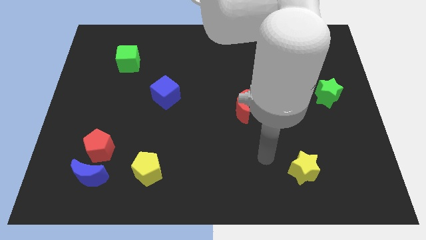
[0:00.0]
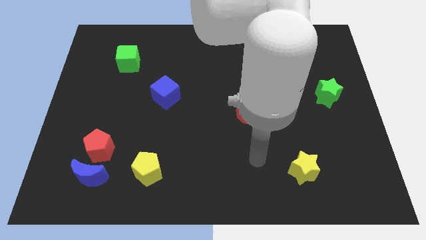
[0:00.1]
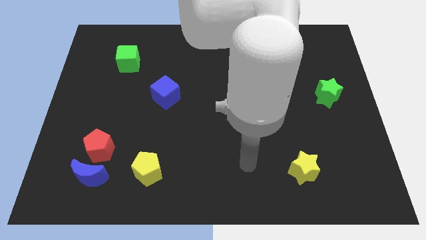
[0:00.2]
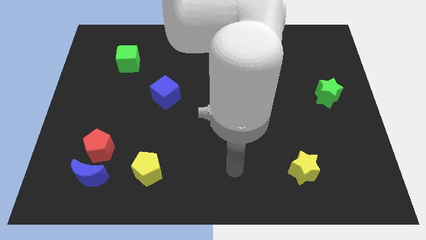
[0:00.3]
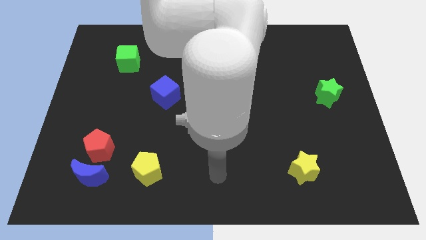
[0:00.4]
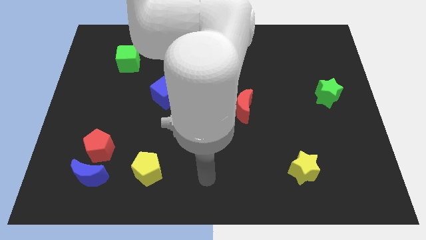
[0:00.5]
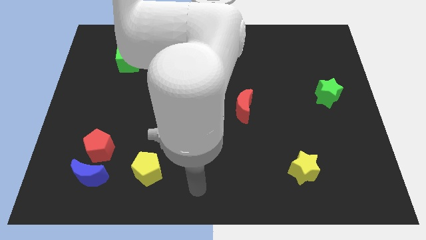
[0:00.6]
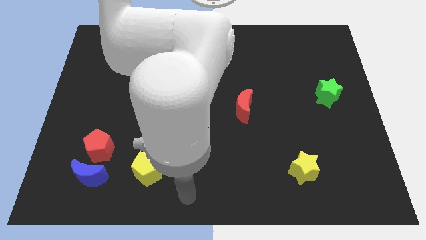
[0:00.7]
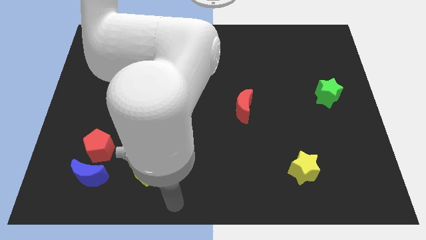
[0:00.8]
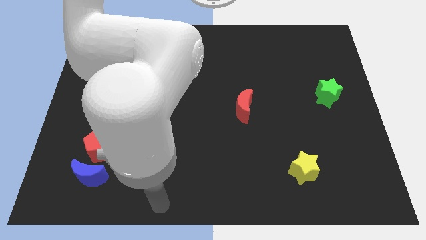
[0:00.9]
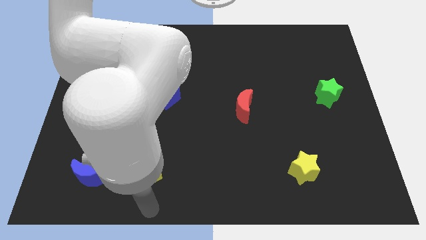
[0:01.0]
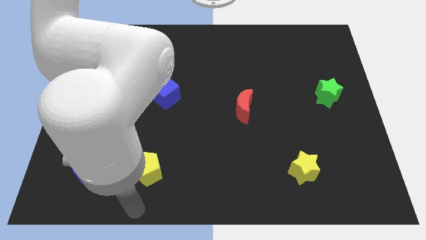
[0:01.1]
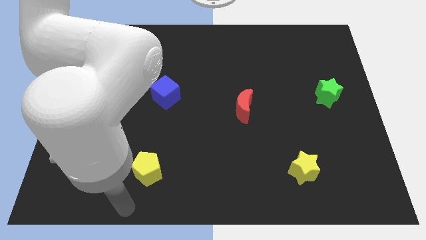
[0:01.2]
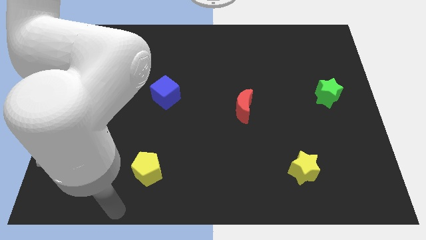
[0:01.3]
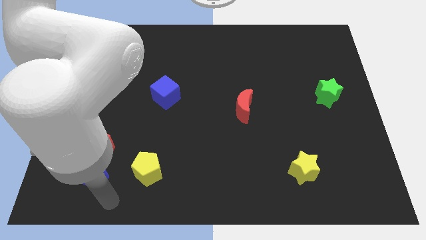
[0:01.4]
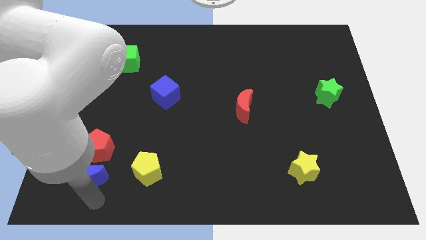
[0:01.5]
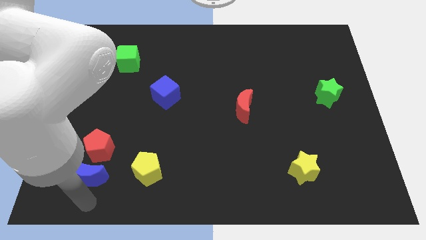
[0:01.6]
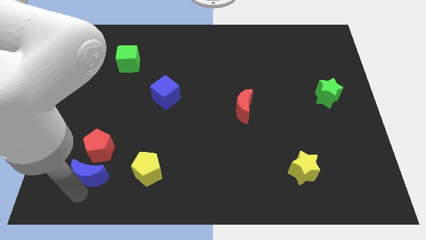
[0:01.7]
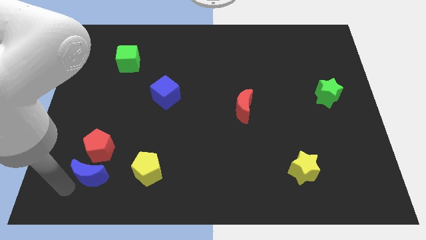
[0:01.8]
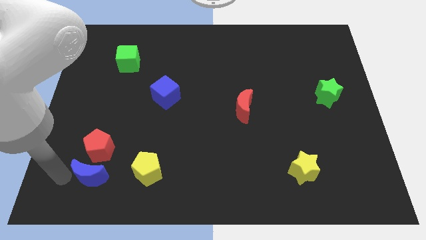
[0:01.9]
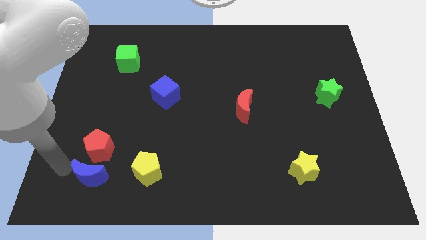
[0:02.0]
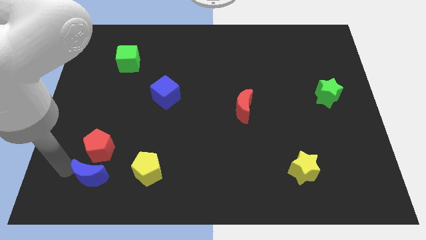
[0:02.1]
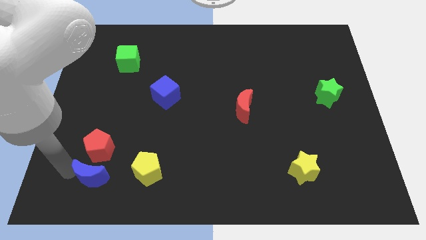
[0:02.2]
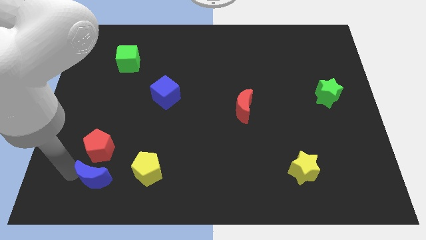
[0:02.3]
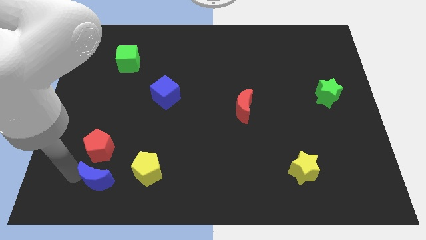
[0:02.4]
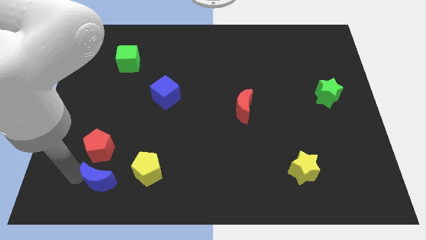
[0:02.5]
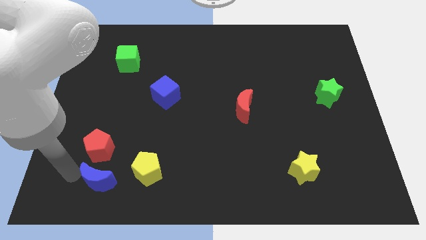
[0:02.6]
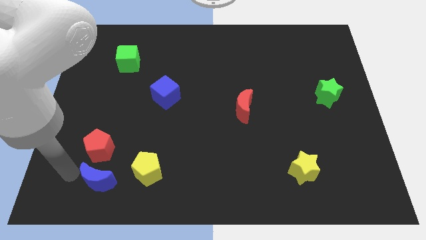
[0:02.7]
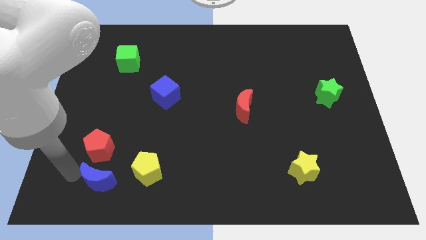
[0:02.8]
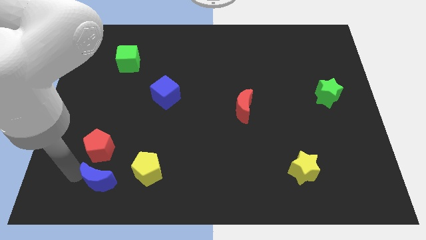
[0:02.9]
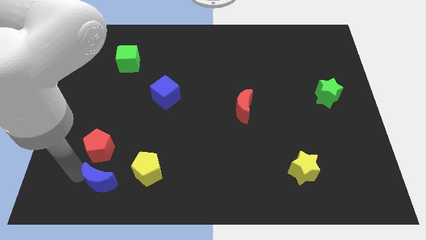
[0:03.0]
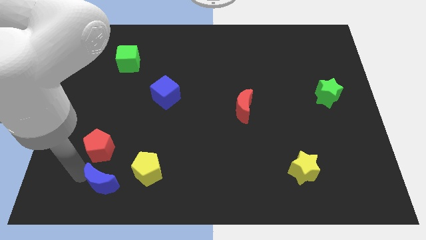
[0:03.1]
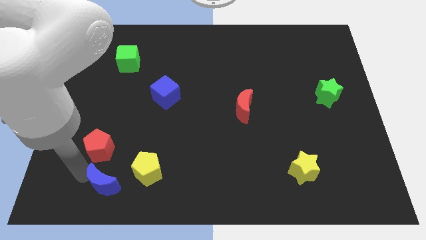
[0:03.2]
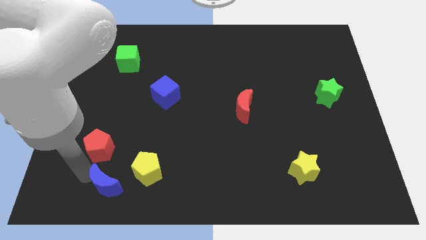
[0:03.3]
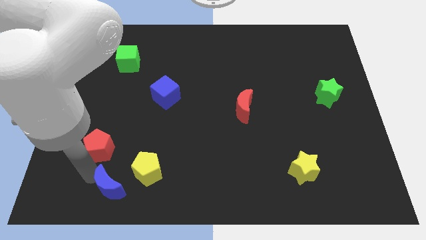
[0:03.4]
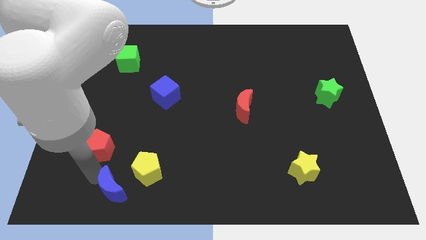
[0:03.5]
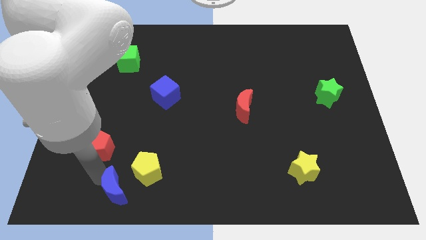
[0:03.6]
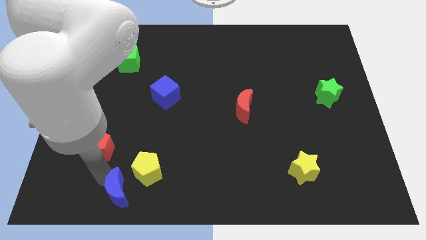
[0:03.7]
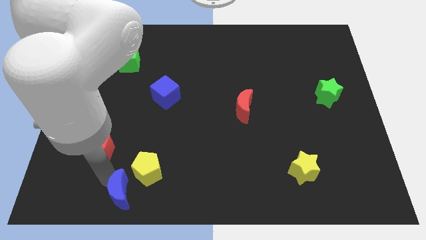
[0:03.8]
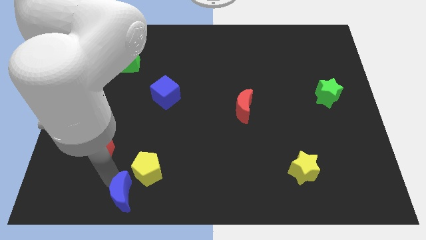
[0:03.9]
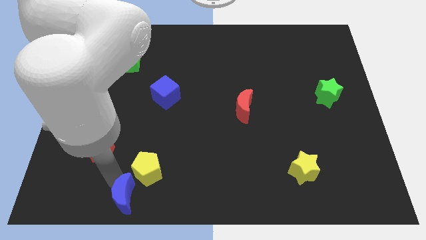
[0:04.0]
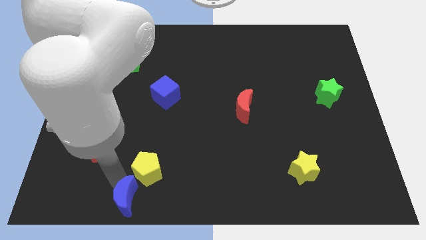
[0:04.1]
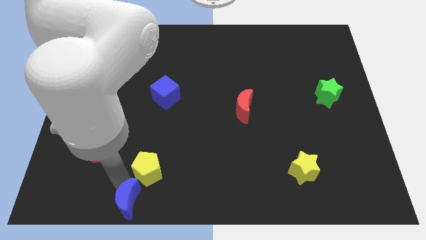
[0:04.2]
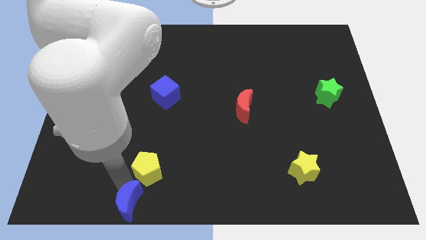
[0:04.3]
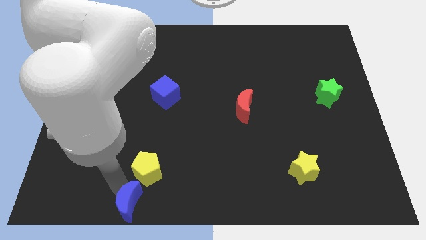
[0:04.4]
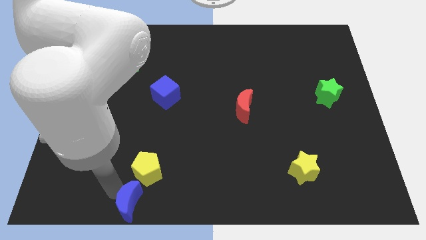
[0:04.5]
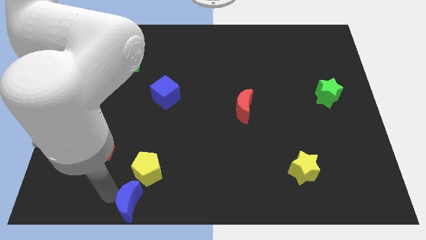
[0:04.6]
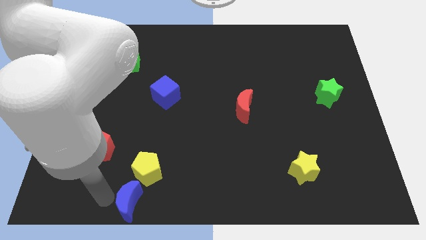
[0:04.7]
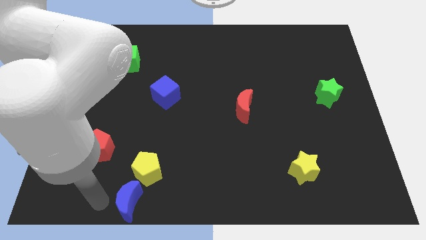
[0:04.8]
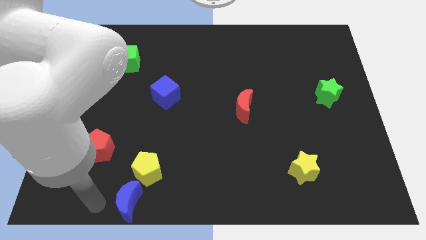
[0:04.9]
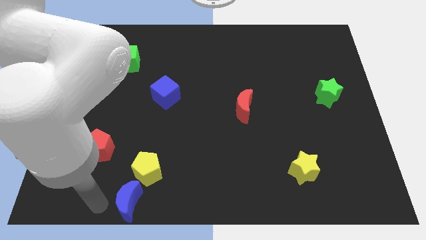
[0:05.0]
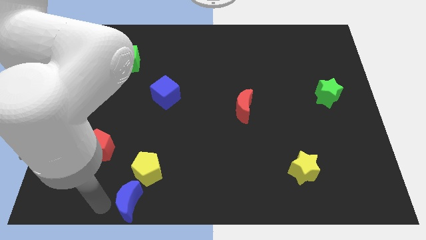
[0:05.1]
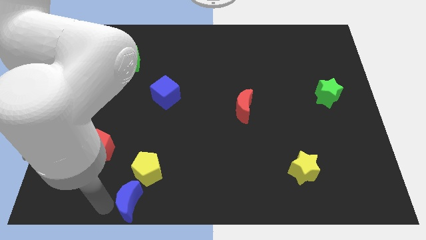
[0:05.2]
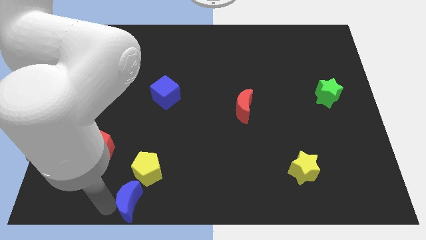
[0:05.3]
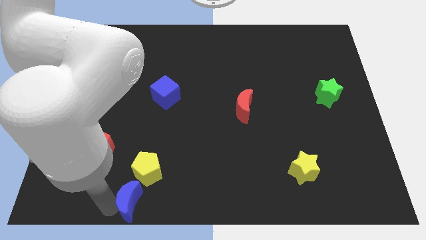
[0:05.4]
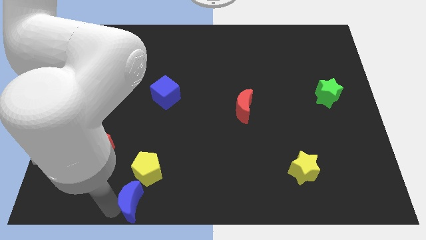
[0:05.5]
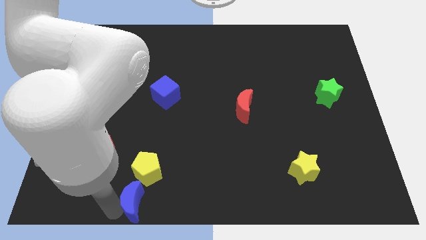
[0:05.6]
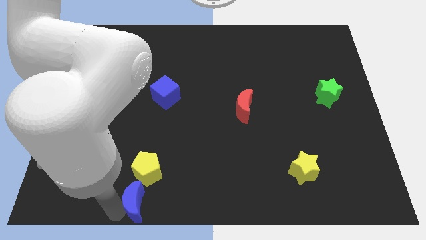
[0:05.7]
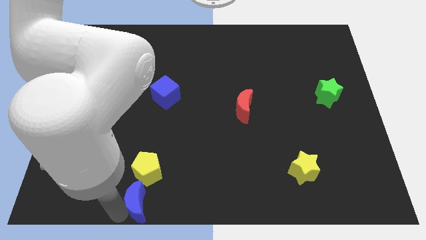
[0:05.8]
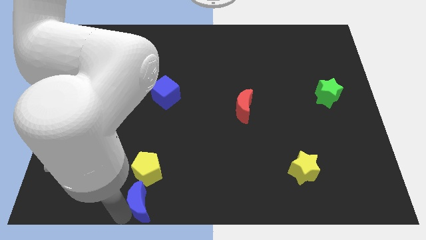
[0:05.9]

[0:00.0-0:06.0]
move the blue moon to the bottom
